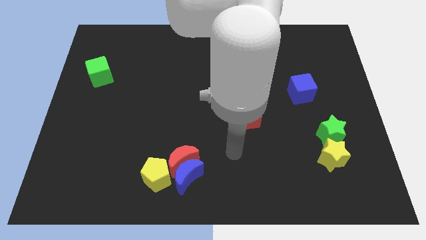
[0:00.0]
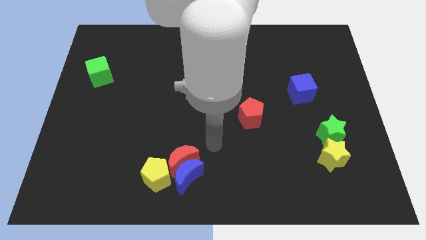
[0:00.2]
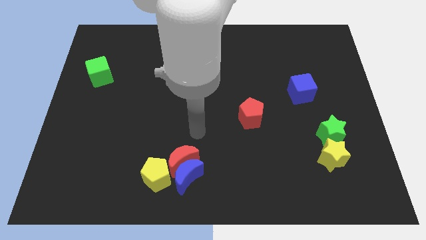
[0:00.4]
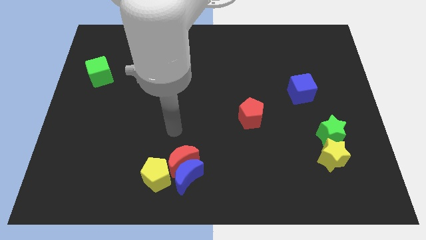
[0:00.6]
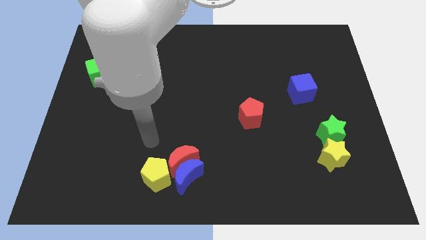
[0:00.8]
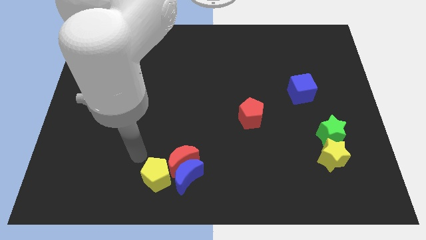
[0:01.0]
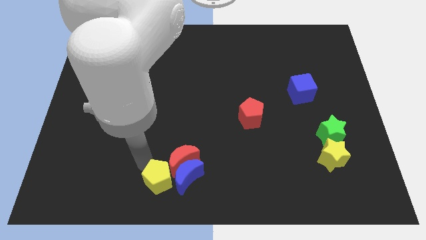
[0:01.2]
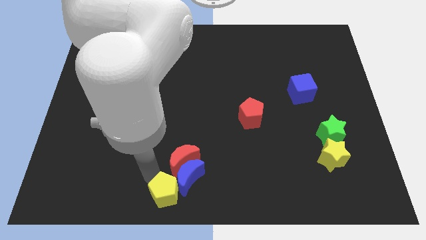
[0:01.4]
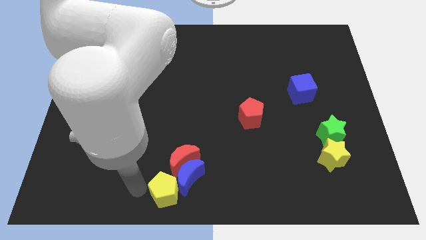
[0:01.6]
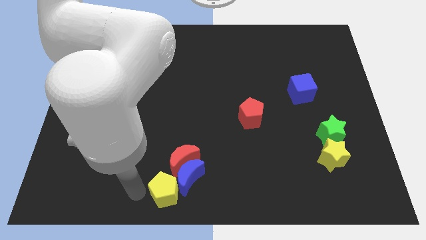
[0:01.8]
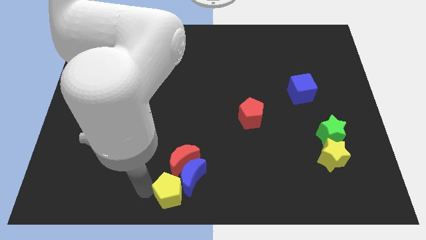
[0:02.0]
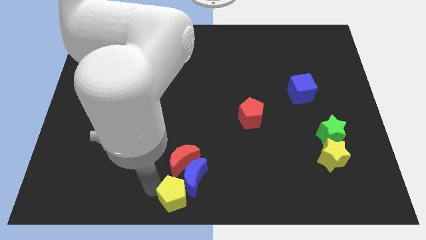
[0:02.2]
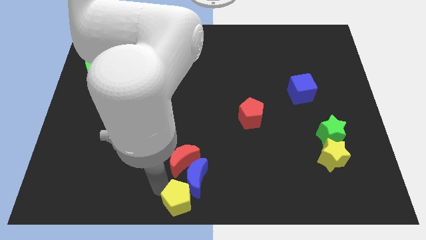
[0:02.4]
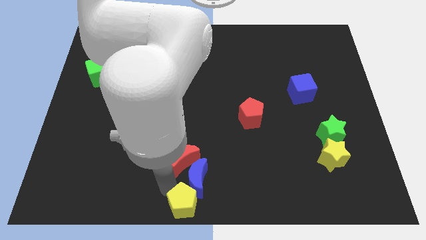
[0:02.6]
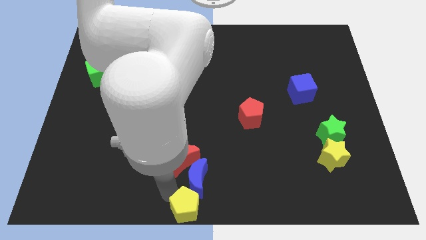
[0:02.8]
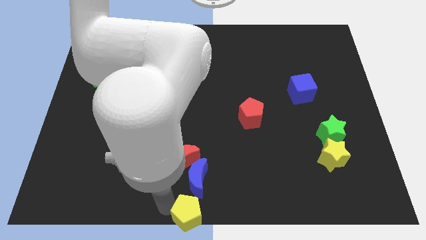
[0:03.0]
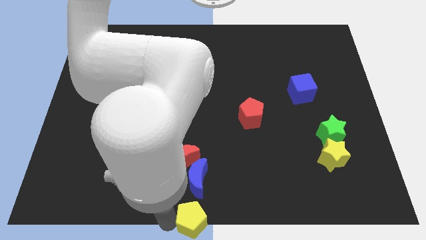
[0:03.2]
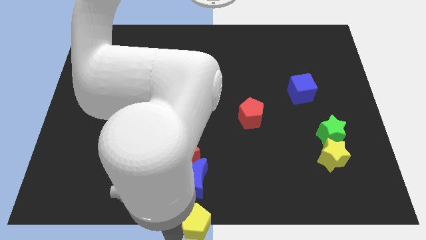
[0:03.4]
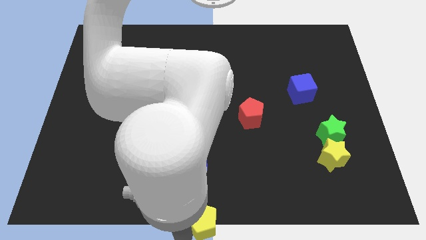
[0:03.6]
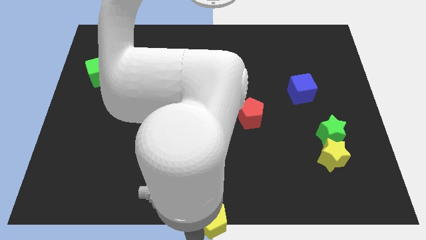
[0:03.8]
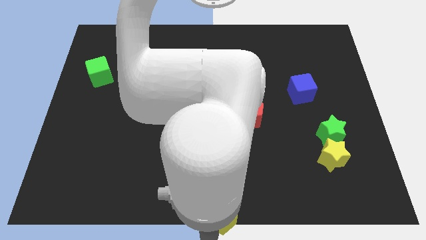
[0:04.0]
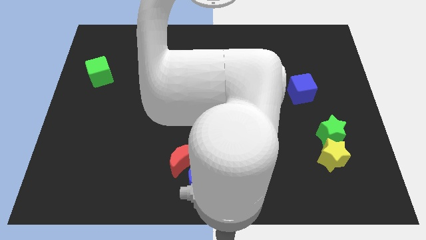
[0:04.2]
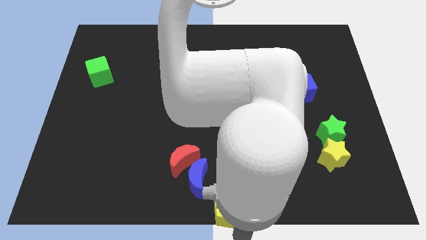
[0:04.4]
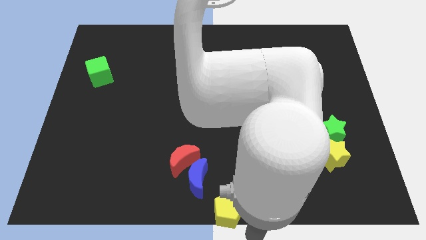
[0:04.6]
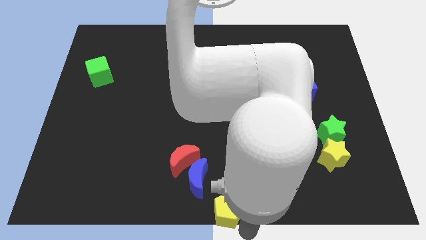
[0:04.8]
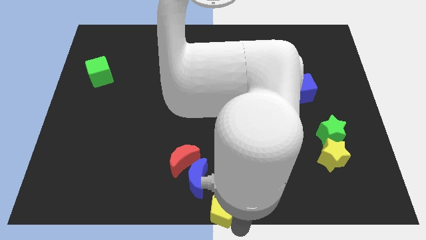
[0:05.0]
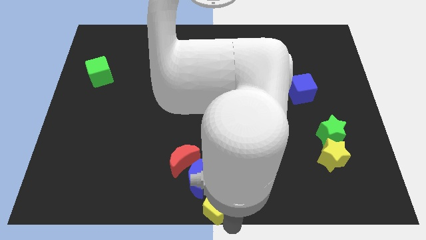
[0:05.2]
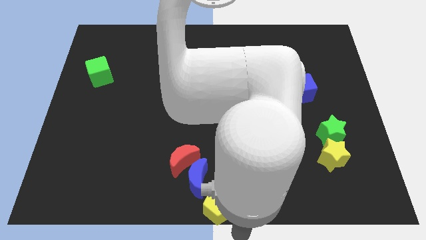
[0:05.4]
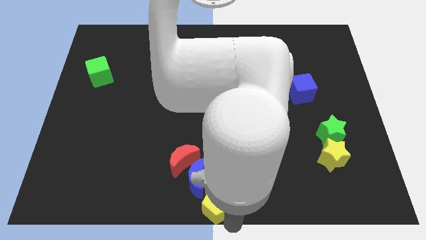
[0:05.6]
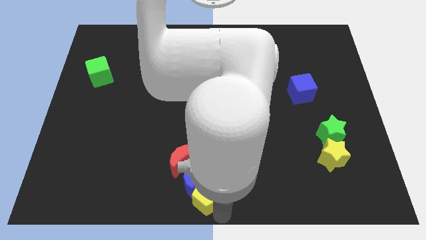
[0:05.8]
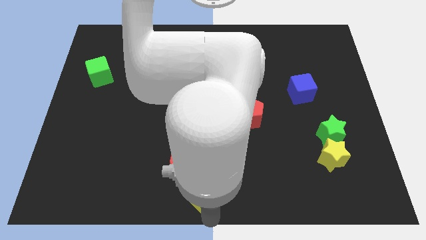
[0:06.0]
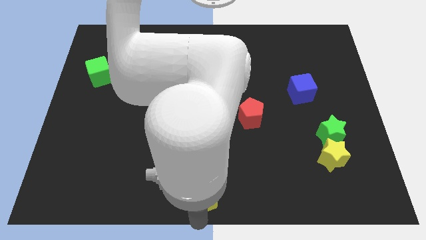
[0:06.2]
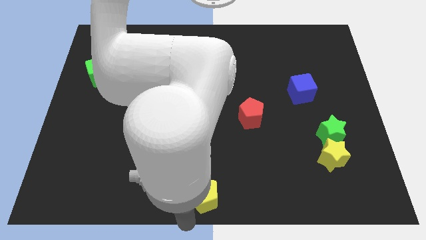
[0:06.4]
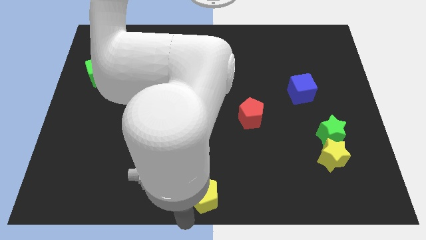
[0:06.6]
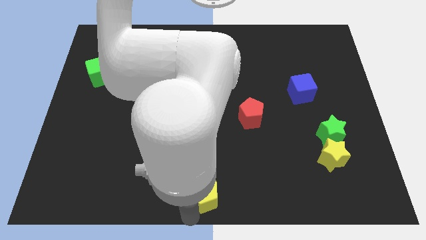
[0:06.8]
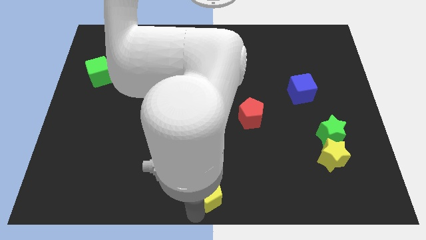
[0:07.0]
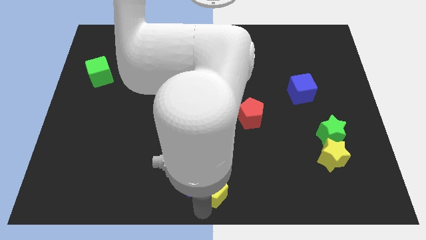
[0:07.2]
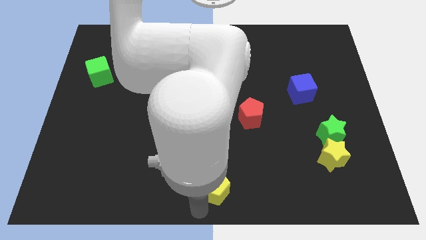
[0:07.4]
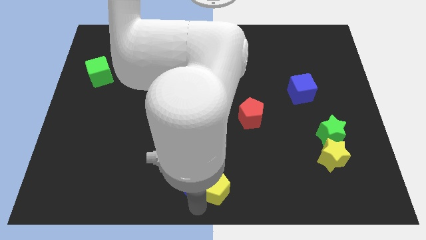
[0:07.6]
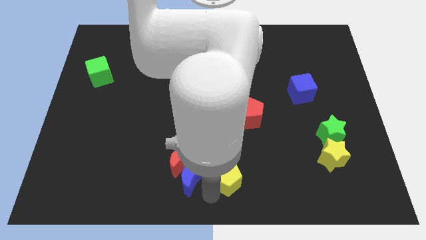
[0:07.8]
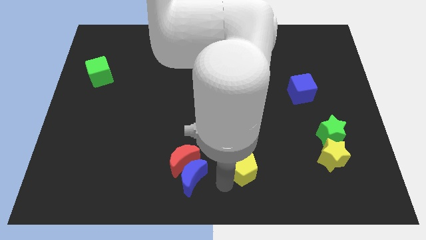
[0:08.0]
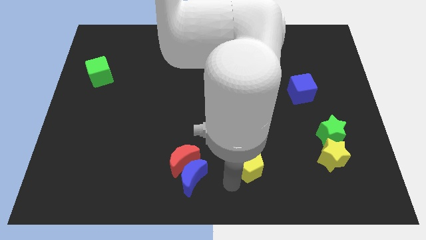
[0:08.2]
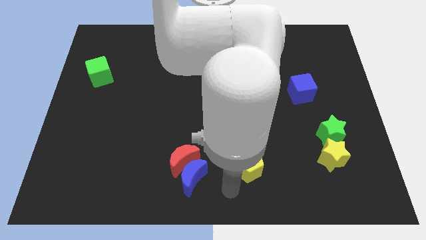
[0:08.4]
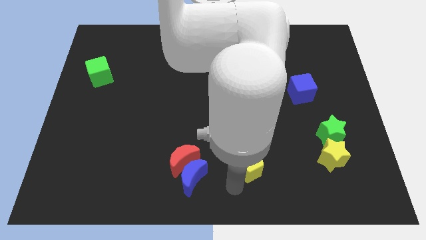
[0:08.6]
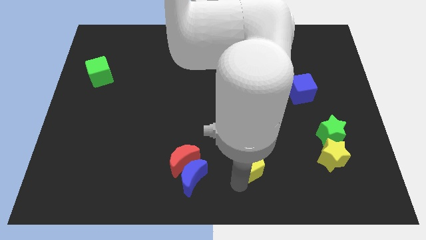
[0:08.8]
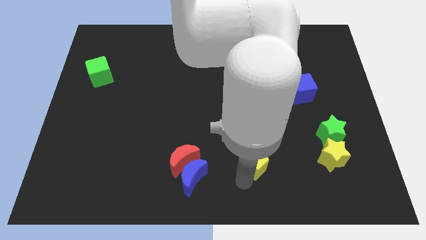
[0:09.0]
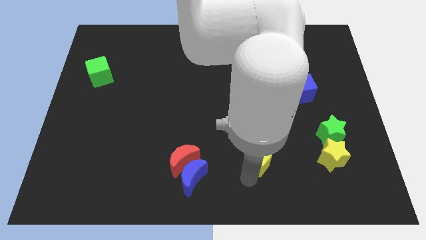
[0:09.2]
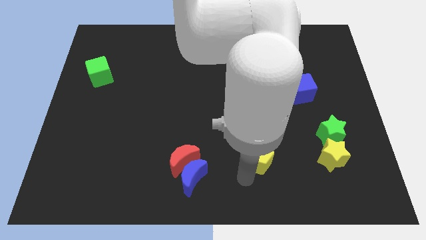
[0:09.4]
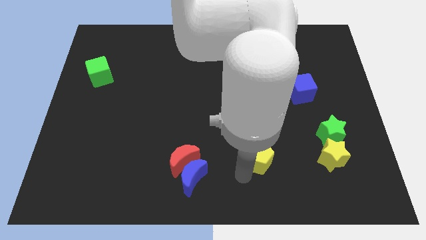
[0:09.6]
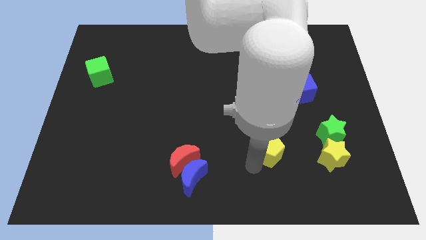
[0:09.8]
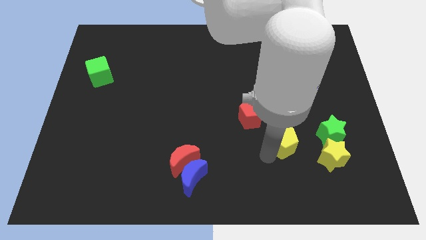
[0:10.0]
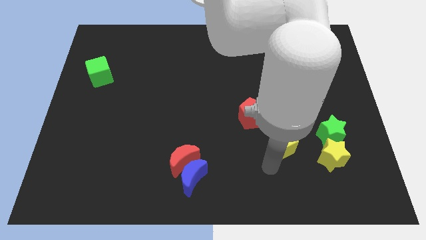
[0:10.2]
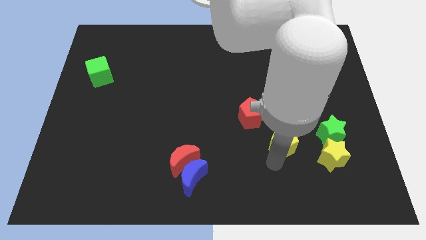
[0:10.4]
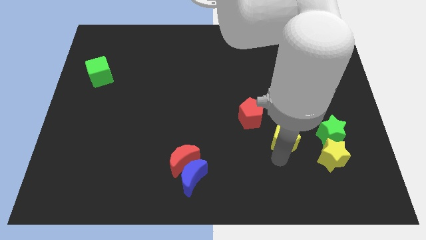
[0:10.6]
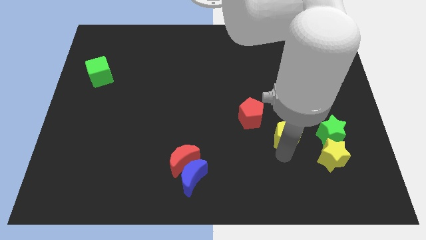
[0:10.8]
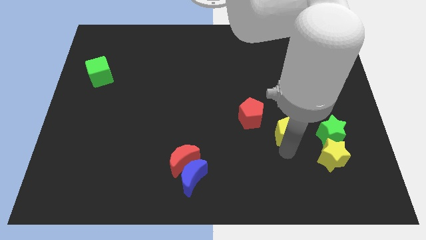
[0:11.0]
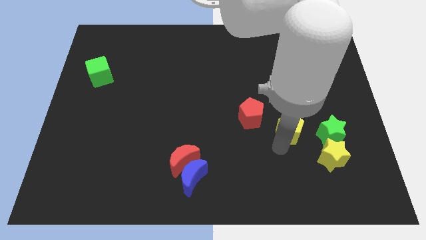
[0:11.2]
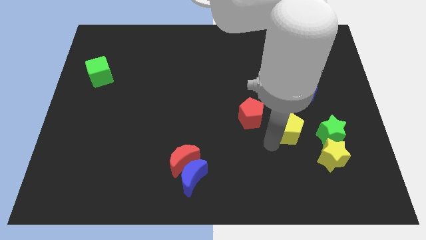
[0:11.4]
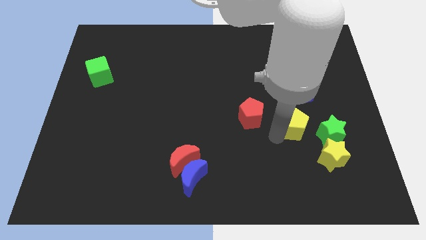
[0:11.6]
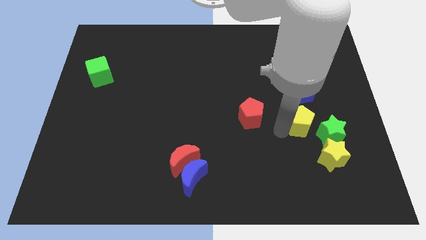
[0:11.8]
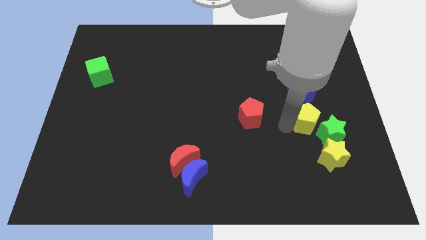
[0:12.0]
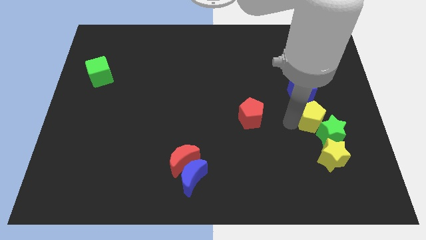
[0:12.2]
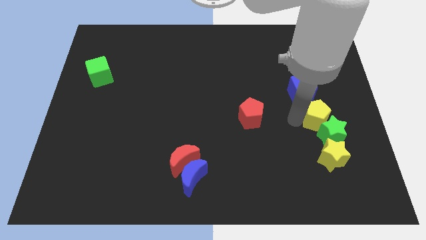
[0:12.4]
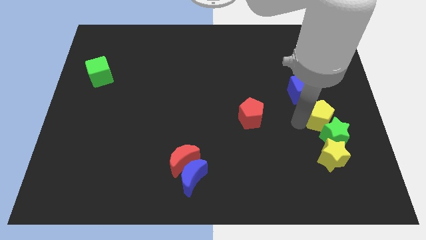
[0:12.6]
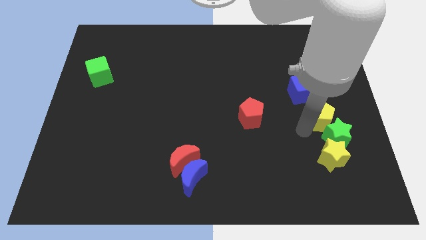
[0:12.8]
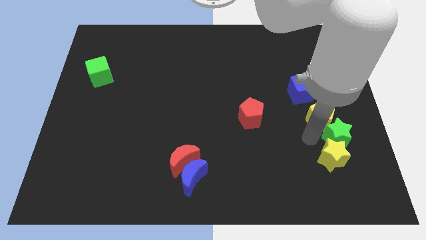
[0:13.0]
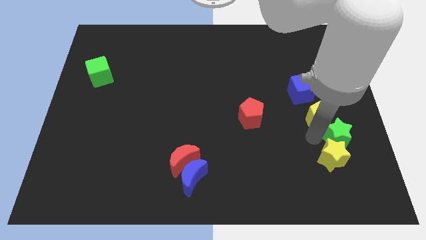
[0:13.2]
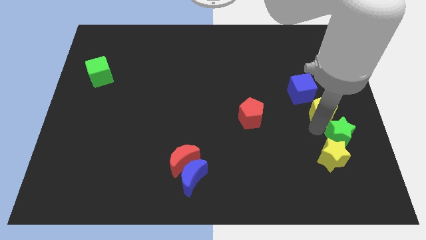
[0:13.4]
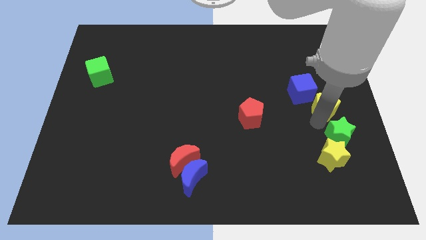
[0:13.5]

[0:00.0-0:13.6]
push the yellow pentagon to the center right
